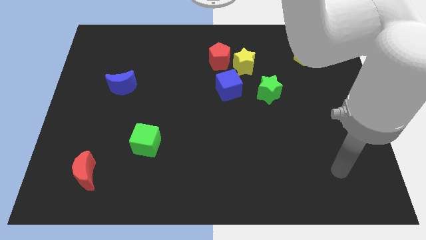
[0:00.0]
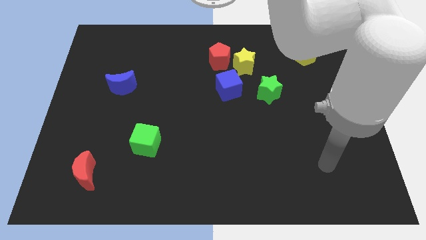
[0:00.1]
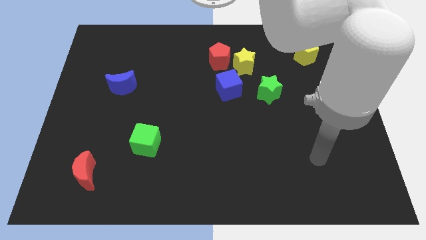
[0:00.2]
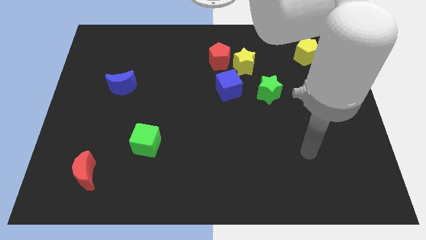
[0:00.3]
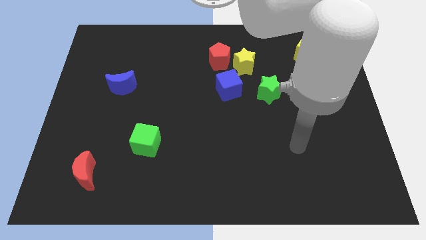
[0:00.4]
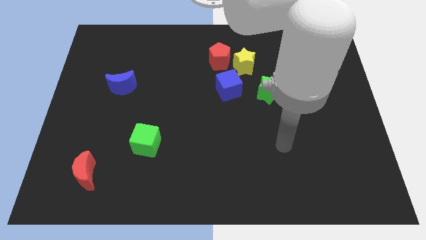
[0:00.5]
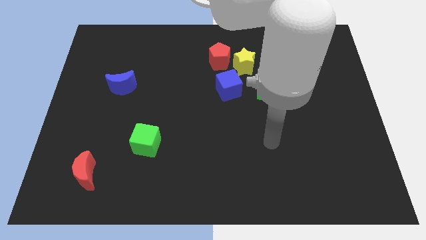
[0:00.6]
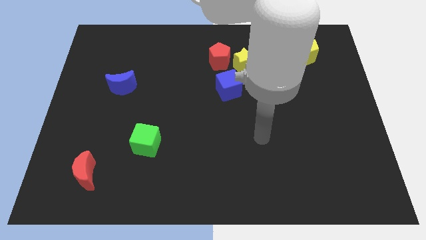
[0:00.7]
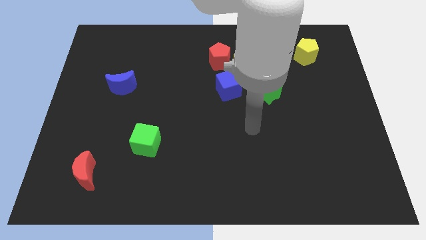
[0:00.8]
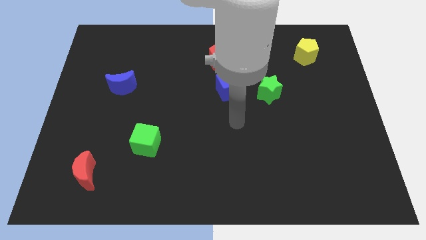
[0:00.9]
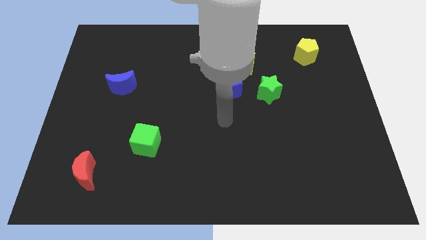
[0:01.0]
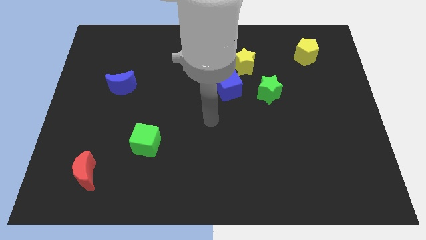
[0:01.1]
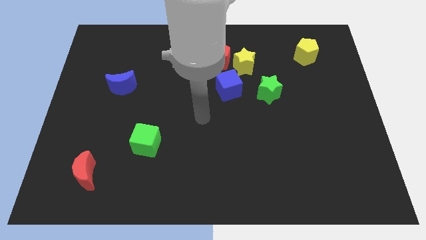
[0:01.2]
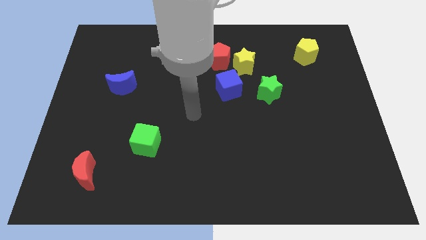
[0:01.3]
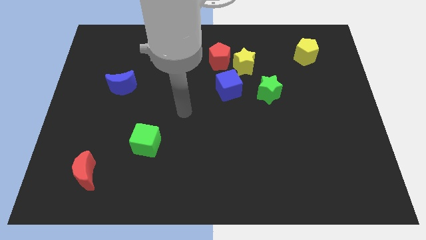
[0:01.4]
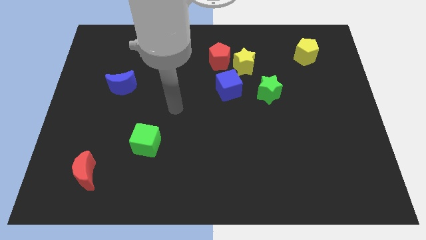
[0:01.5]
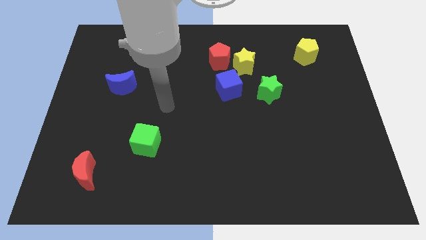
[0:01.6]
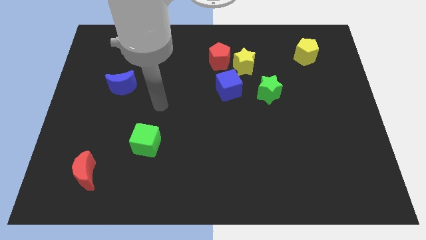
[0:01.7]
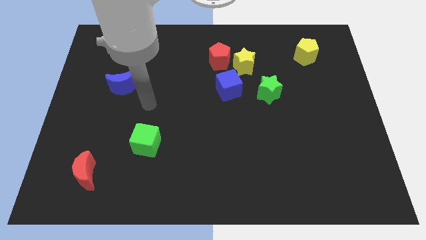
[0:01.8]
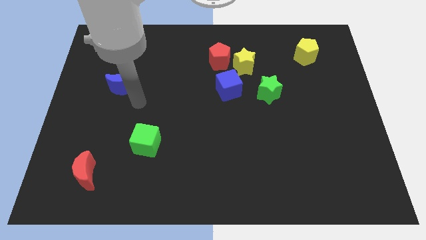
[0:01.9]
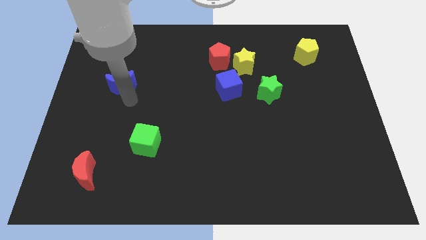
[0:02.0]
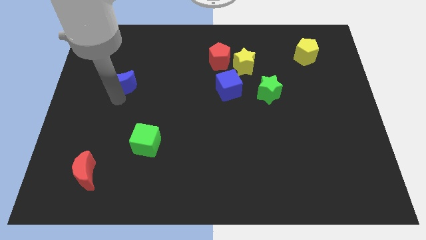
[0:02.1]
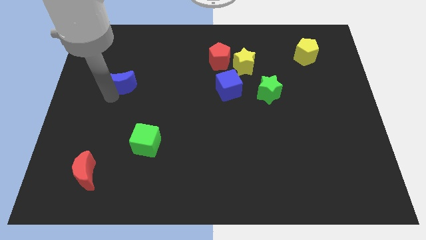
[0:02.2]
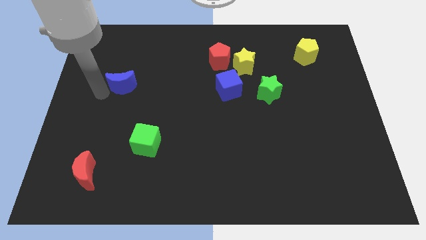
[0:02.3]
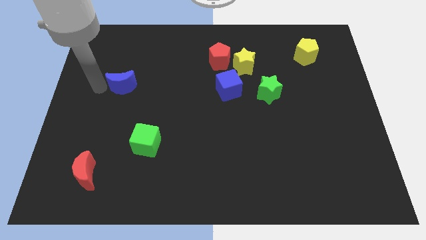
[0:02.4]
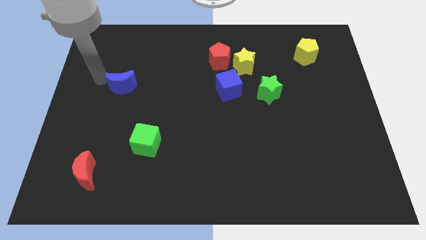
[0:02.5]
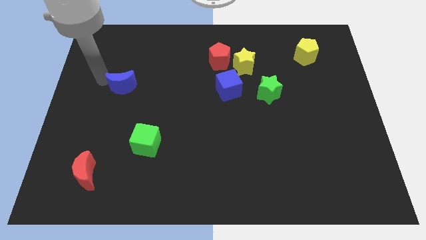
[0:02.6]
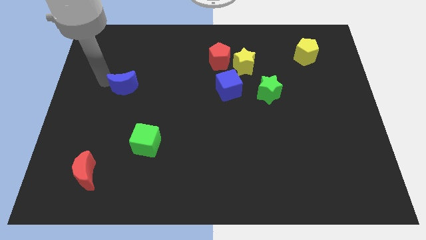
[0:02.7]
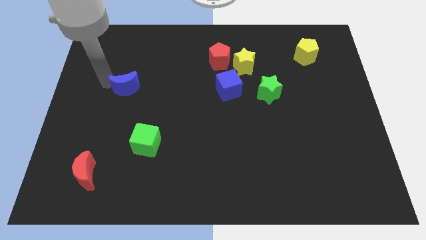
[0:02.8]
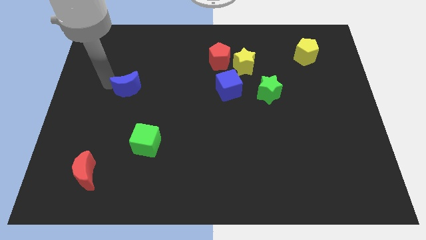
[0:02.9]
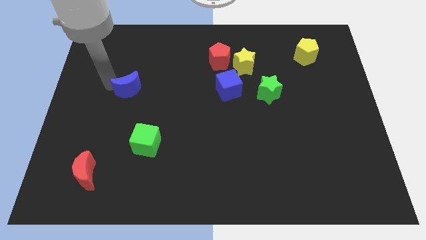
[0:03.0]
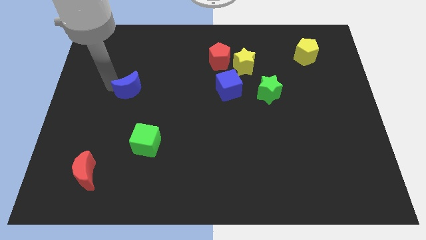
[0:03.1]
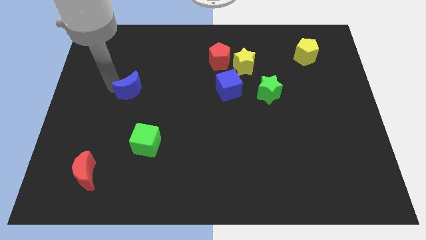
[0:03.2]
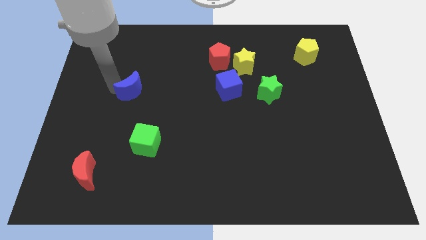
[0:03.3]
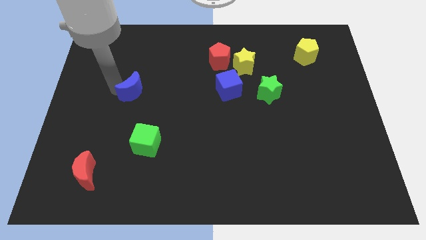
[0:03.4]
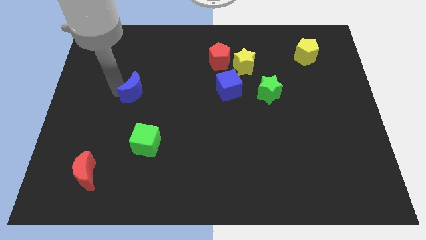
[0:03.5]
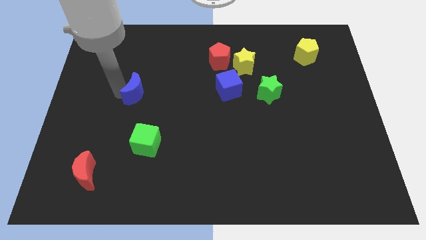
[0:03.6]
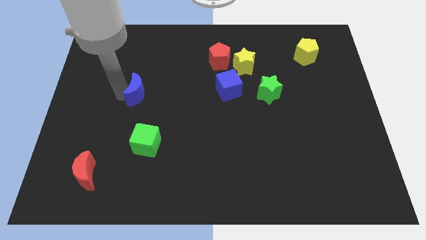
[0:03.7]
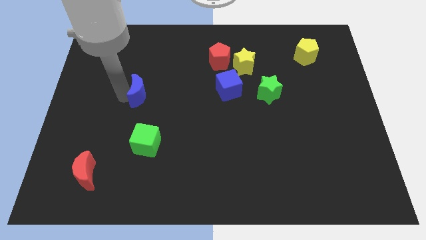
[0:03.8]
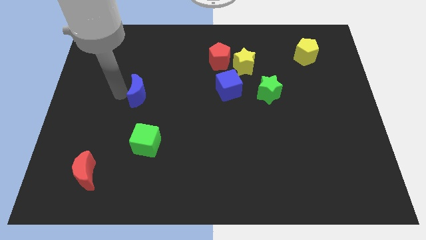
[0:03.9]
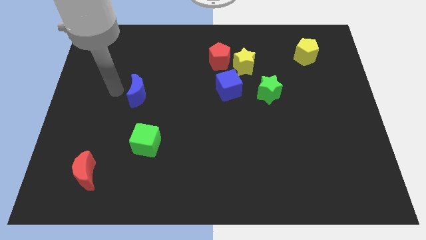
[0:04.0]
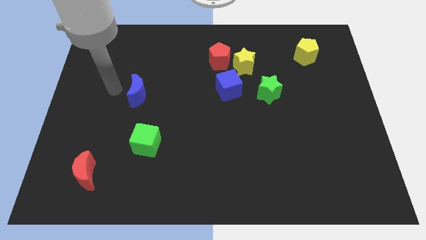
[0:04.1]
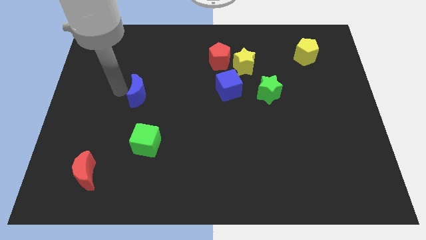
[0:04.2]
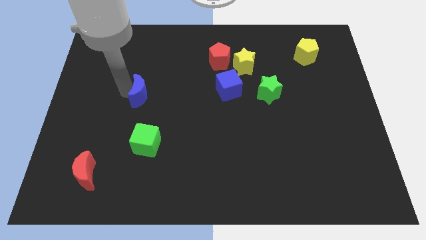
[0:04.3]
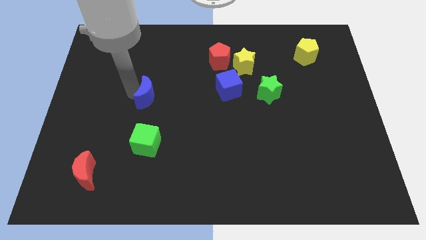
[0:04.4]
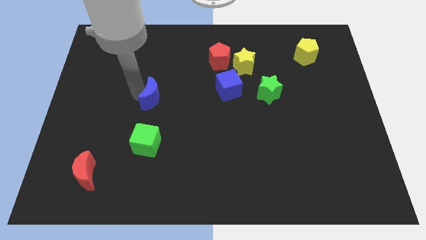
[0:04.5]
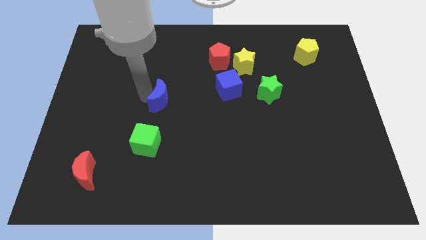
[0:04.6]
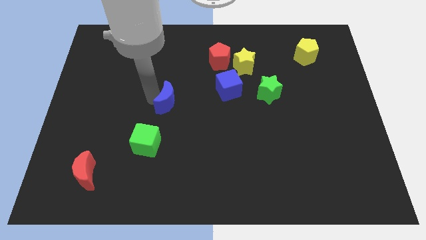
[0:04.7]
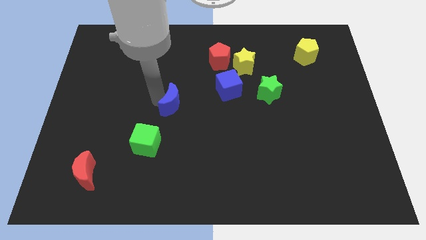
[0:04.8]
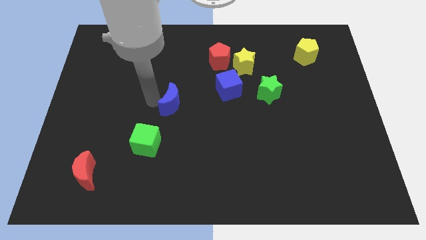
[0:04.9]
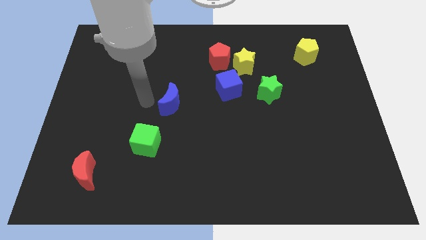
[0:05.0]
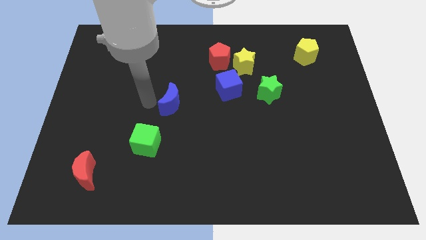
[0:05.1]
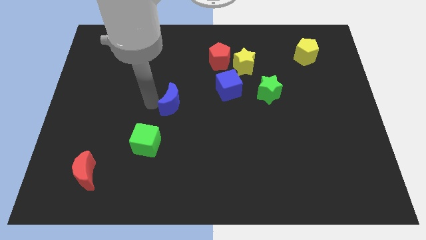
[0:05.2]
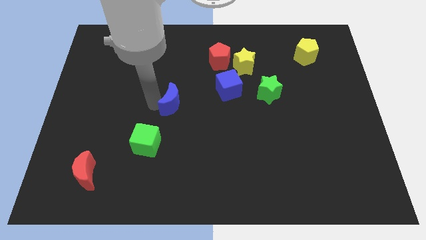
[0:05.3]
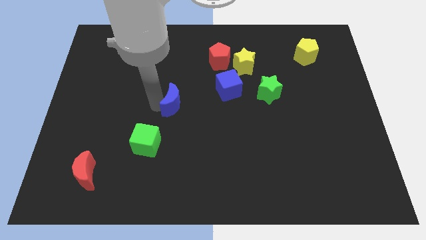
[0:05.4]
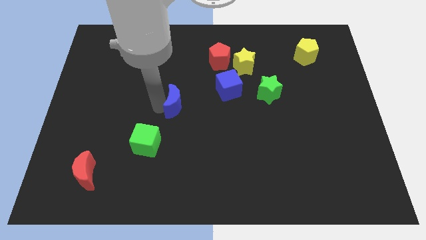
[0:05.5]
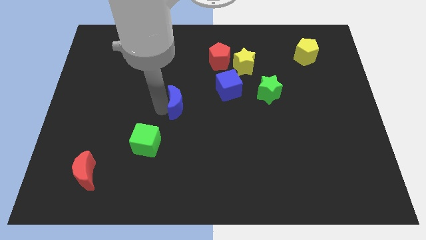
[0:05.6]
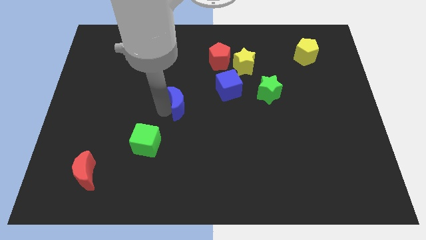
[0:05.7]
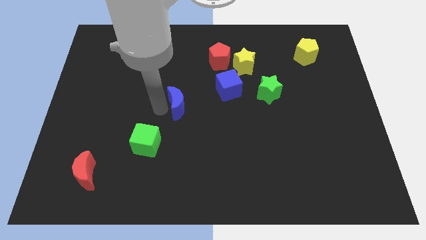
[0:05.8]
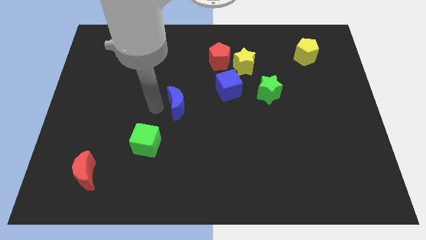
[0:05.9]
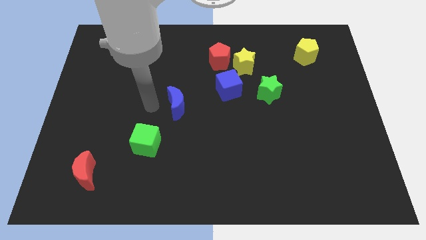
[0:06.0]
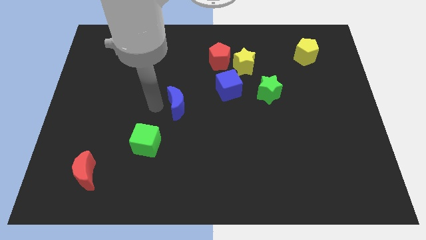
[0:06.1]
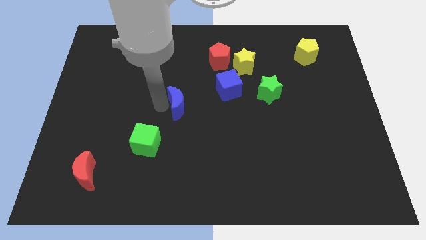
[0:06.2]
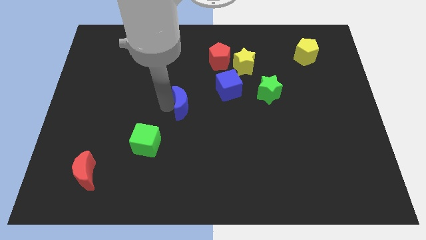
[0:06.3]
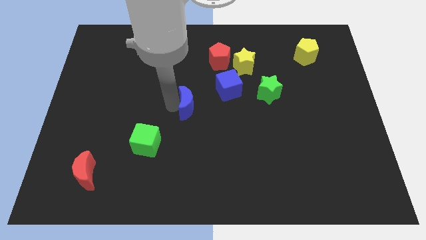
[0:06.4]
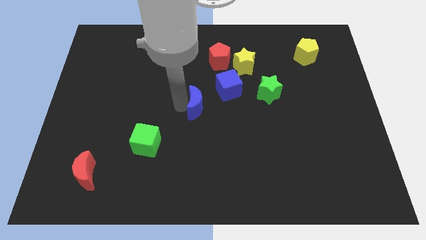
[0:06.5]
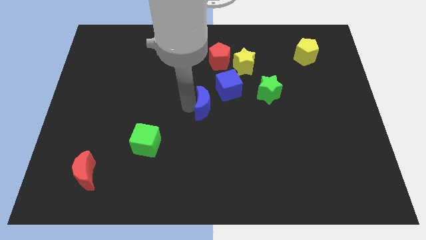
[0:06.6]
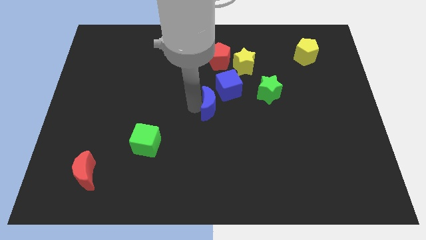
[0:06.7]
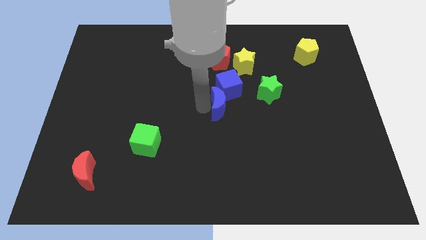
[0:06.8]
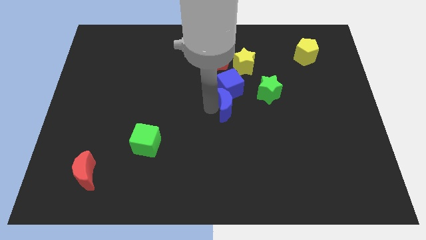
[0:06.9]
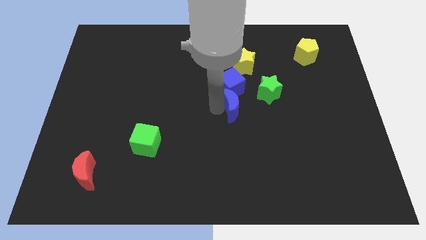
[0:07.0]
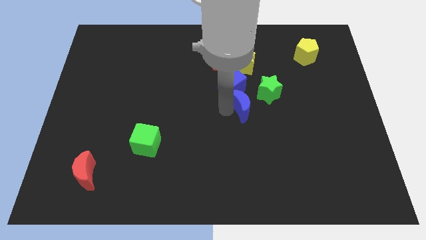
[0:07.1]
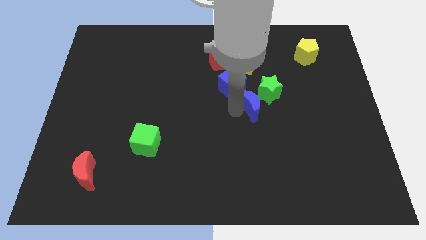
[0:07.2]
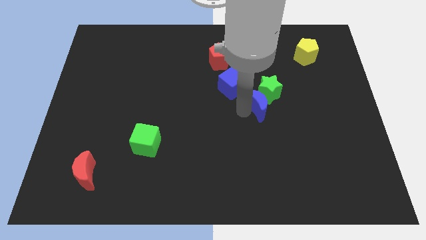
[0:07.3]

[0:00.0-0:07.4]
slide the blue moon towards the green star
